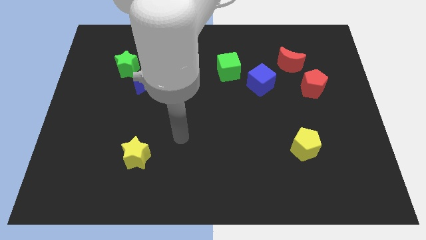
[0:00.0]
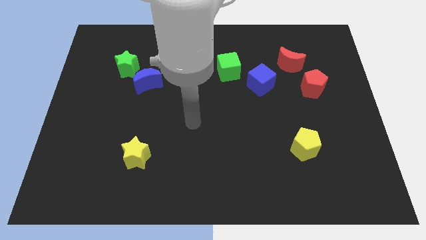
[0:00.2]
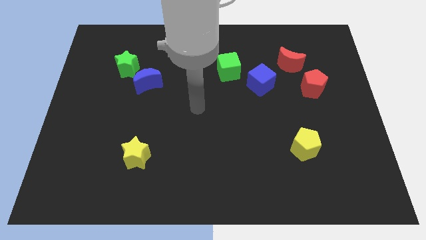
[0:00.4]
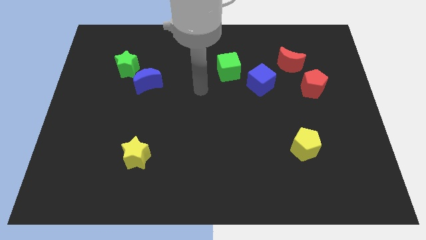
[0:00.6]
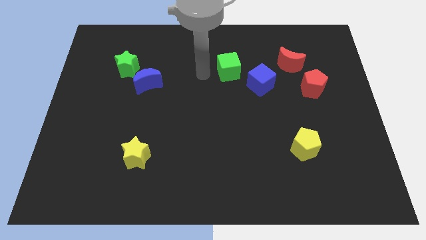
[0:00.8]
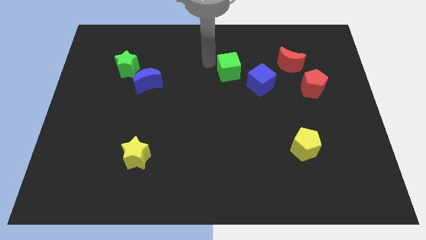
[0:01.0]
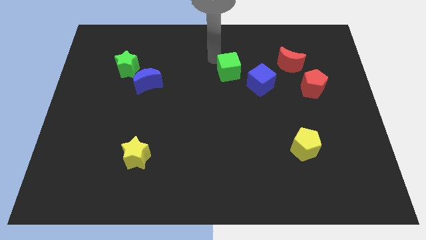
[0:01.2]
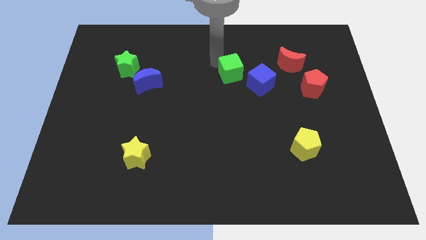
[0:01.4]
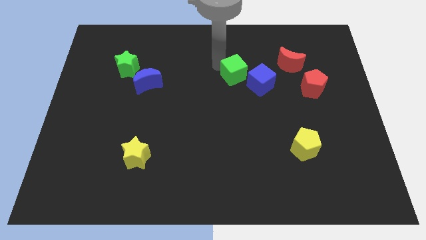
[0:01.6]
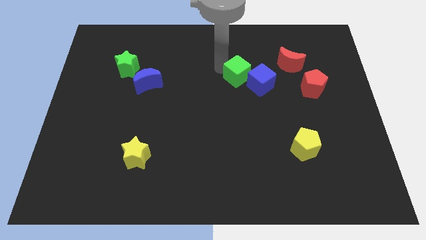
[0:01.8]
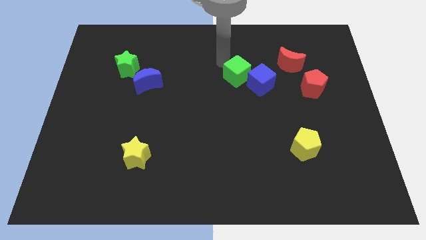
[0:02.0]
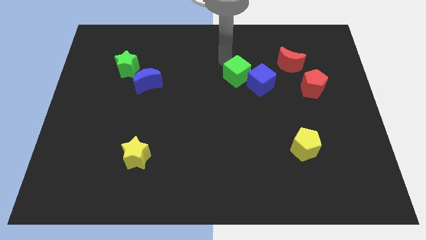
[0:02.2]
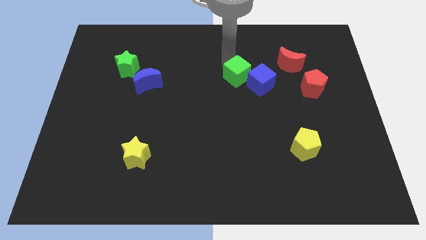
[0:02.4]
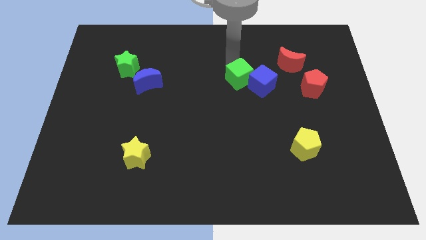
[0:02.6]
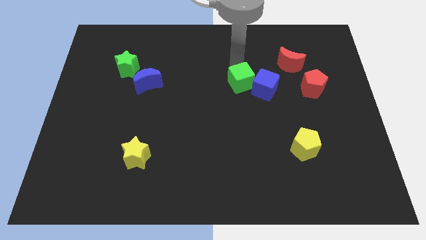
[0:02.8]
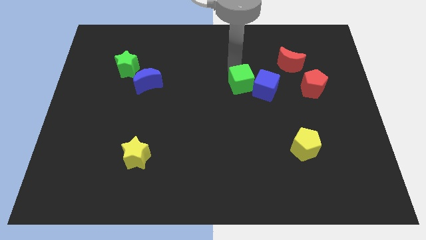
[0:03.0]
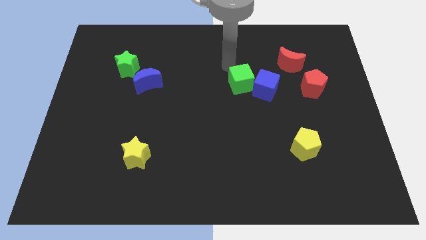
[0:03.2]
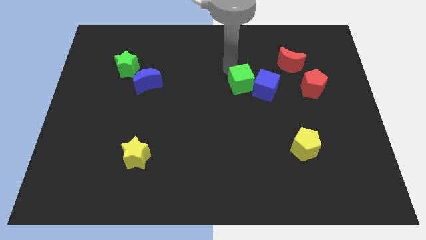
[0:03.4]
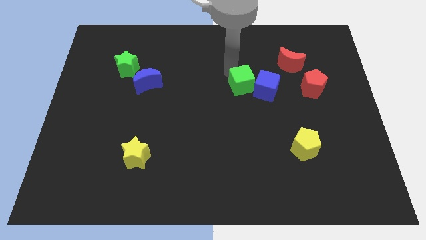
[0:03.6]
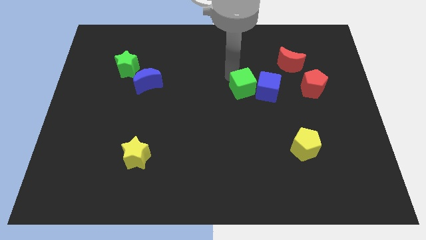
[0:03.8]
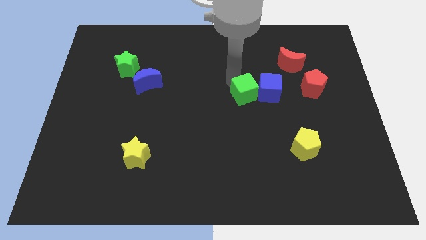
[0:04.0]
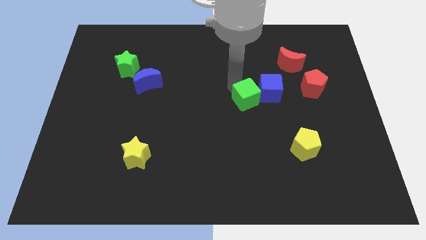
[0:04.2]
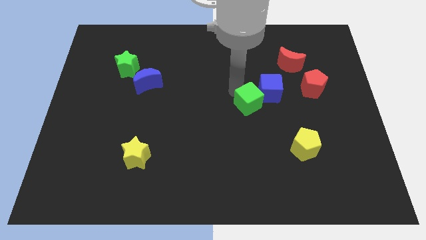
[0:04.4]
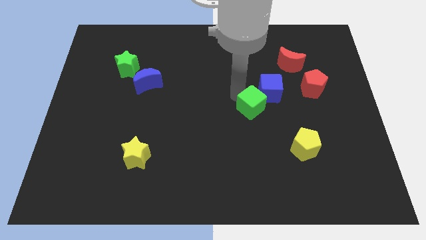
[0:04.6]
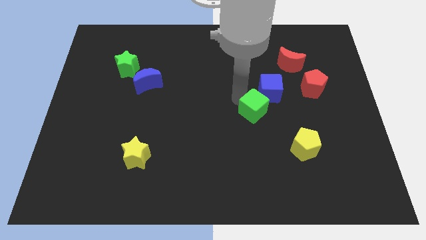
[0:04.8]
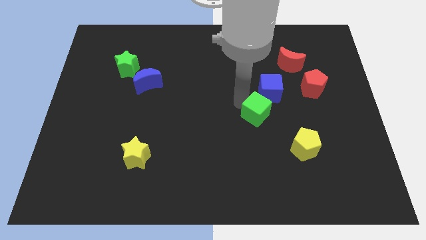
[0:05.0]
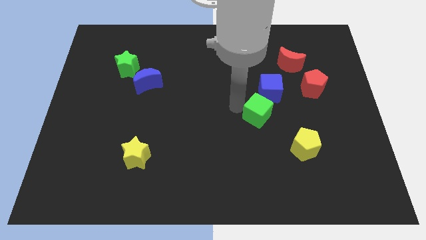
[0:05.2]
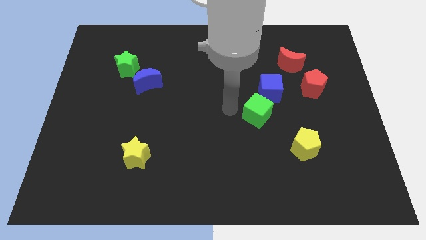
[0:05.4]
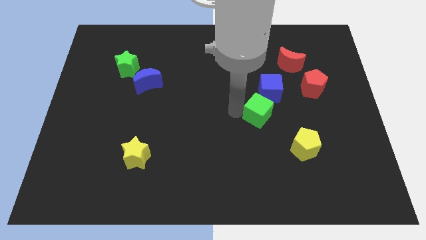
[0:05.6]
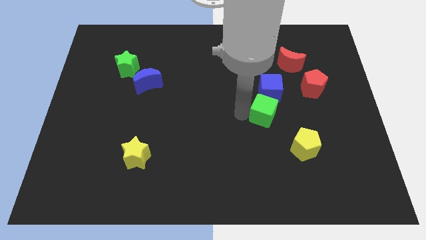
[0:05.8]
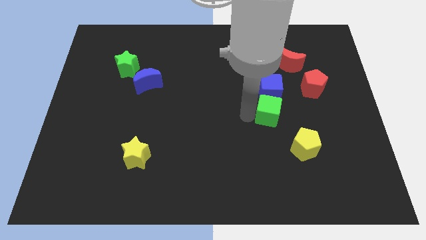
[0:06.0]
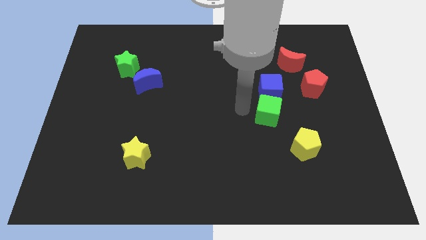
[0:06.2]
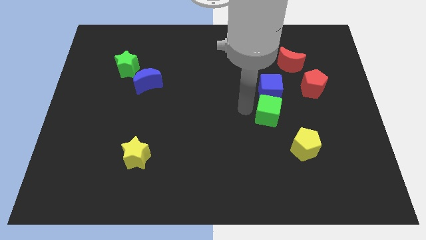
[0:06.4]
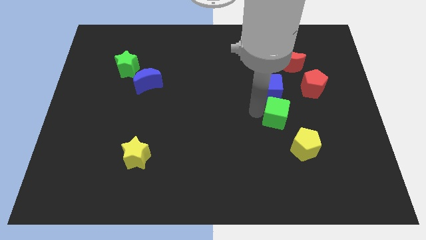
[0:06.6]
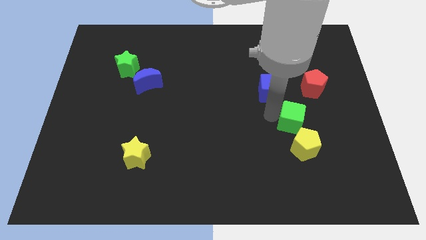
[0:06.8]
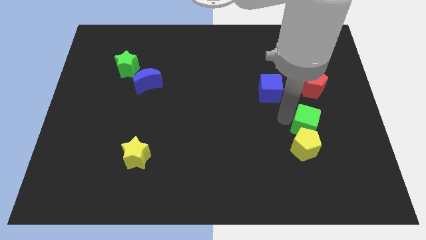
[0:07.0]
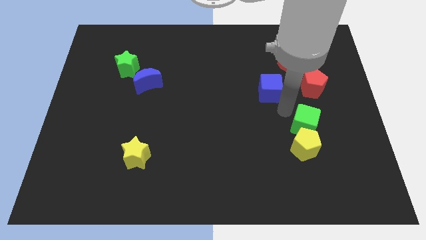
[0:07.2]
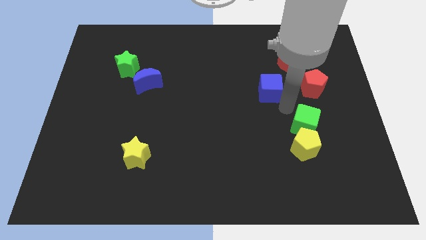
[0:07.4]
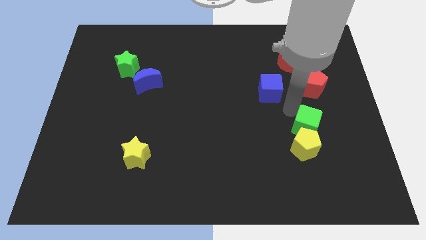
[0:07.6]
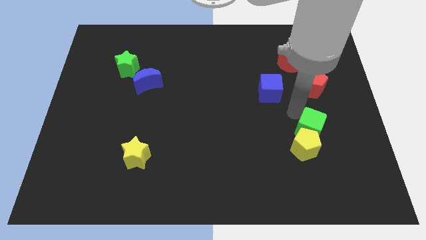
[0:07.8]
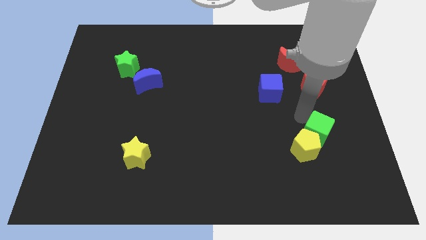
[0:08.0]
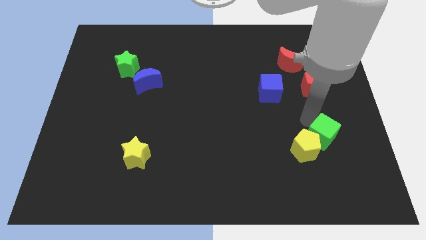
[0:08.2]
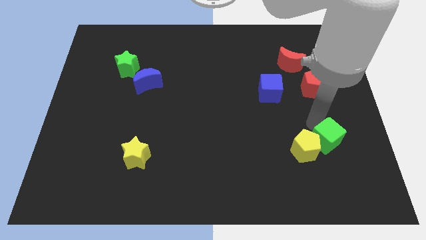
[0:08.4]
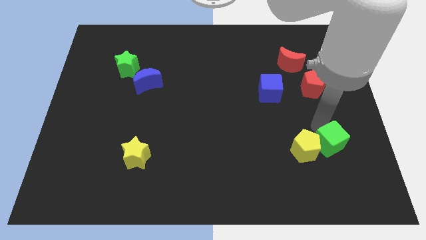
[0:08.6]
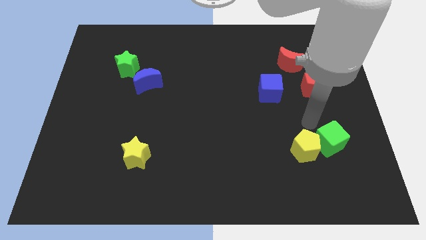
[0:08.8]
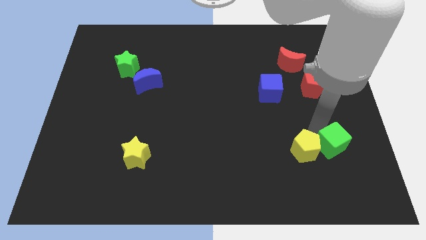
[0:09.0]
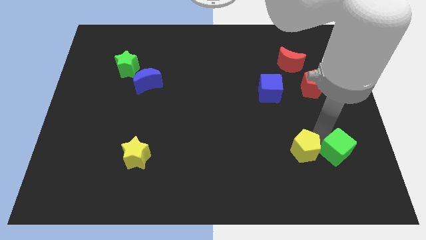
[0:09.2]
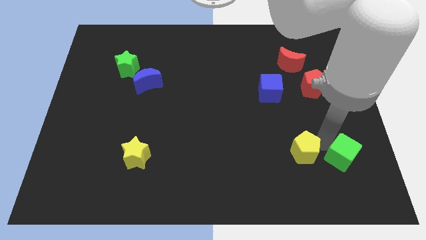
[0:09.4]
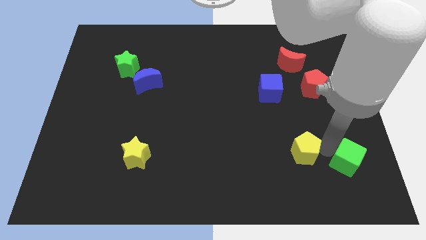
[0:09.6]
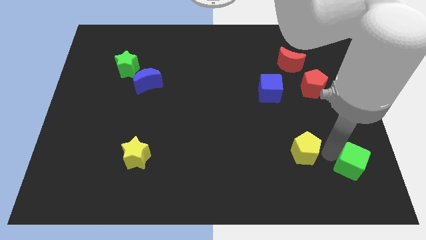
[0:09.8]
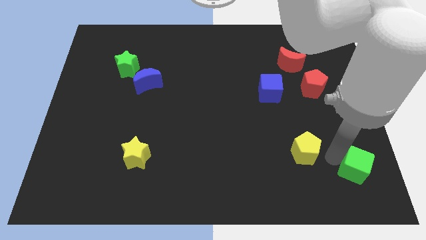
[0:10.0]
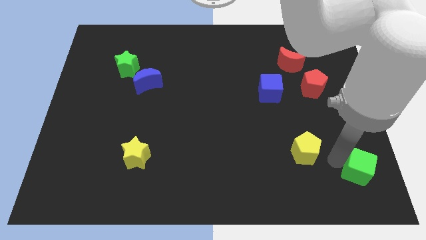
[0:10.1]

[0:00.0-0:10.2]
put the green cube to the lower right corner
